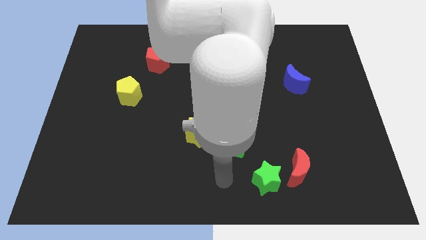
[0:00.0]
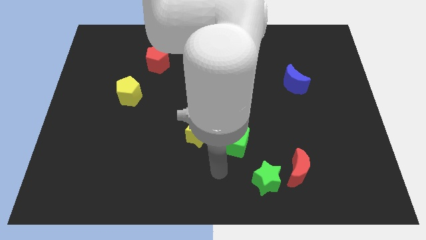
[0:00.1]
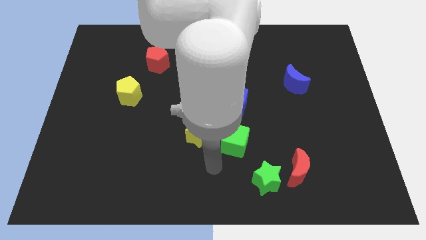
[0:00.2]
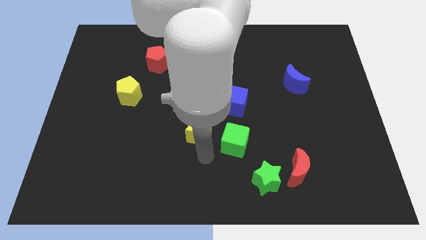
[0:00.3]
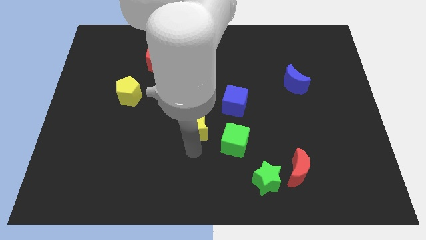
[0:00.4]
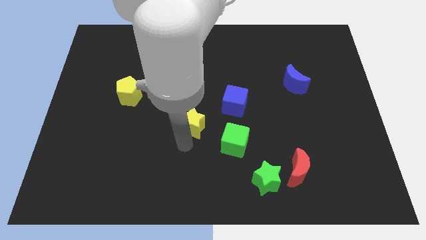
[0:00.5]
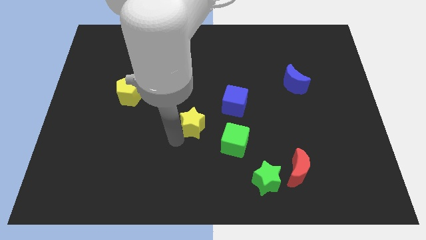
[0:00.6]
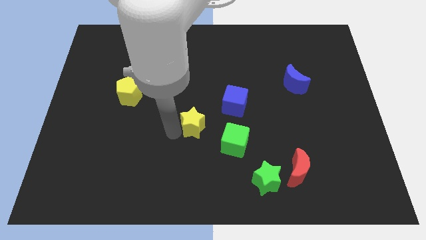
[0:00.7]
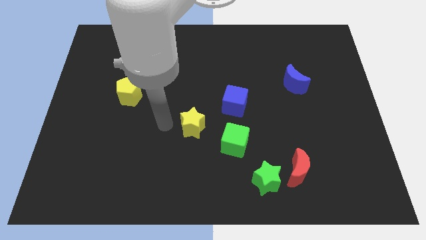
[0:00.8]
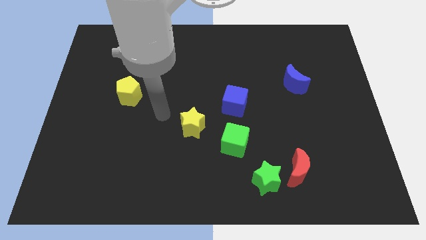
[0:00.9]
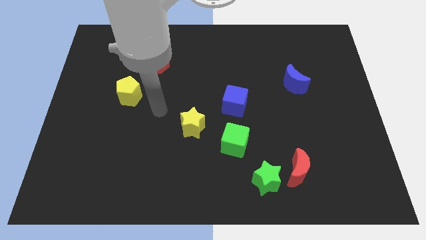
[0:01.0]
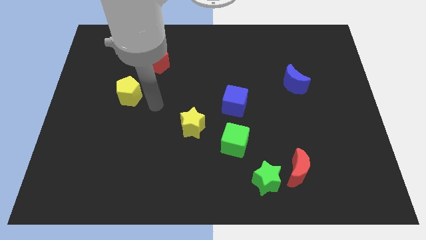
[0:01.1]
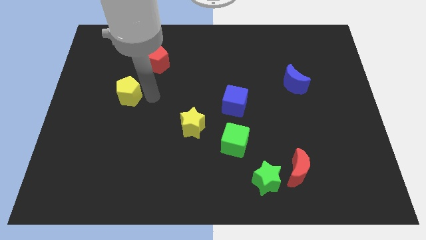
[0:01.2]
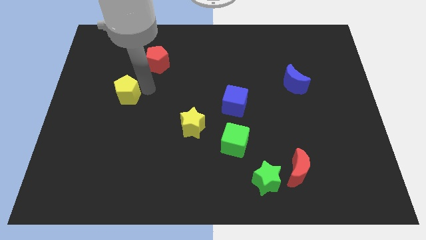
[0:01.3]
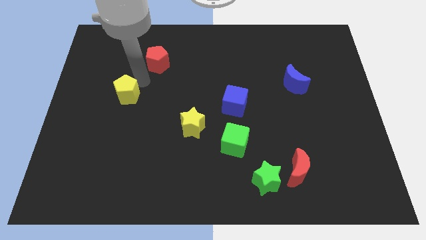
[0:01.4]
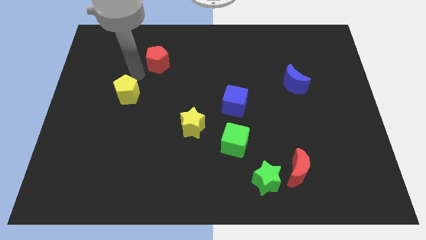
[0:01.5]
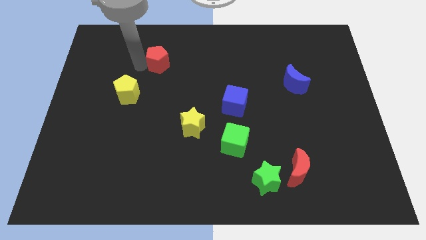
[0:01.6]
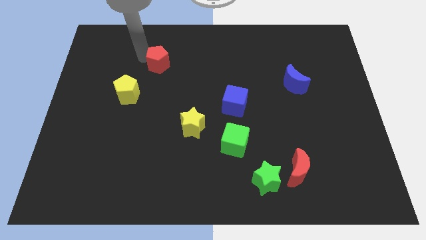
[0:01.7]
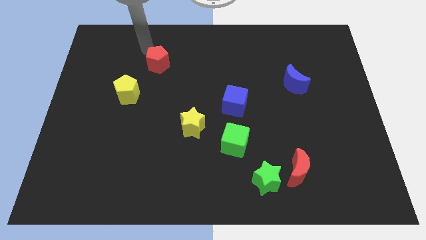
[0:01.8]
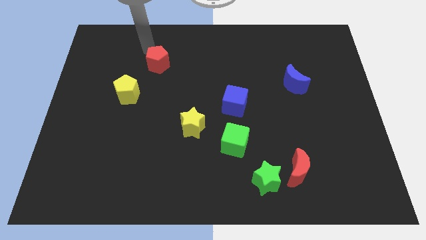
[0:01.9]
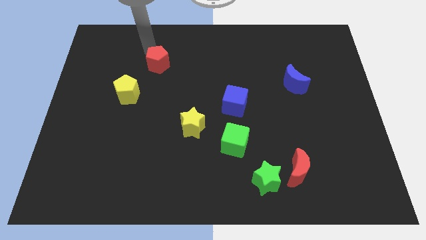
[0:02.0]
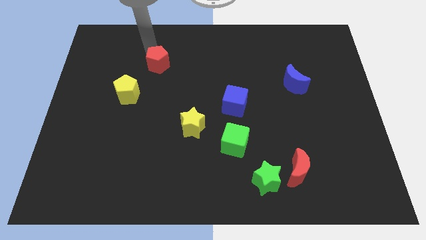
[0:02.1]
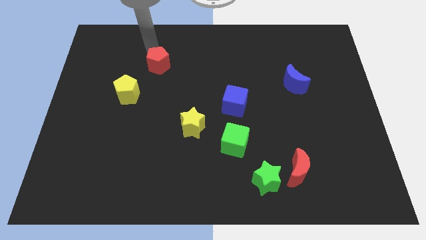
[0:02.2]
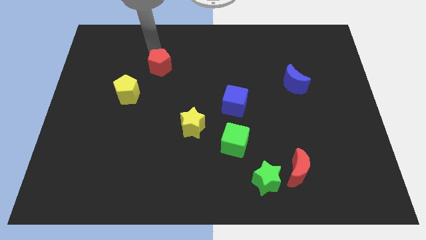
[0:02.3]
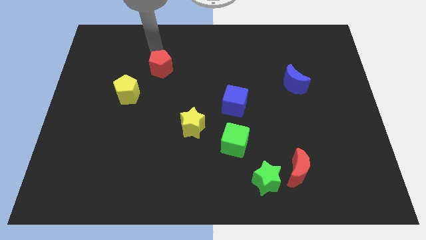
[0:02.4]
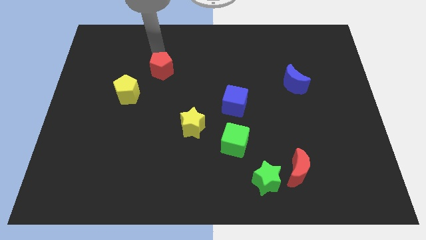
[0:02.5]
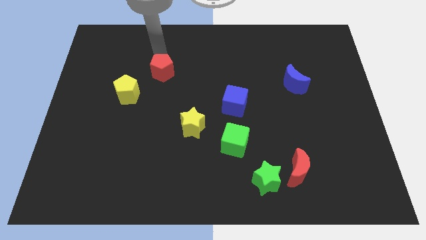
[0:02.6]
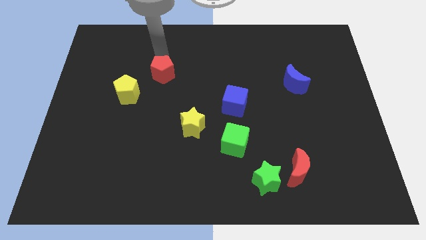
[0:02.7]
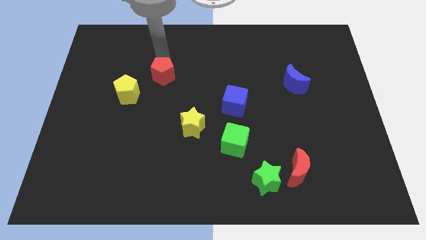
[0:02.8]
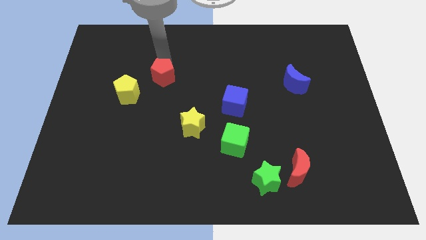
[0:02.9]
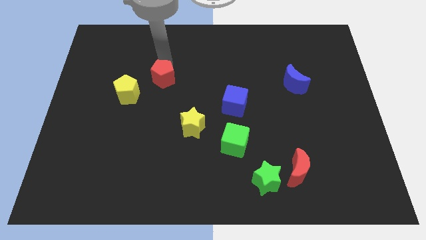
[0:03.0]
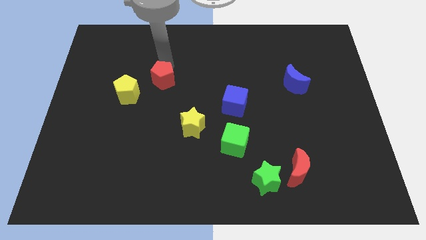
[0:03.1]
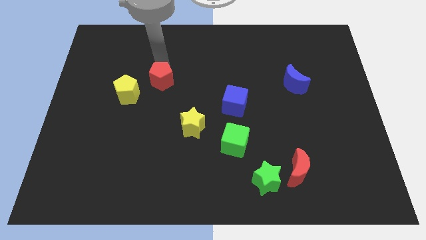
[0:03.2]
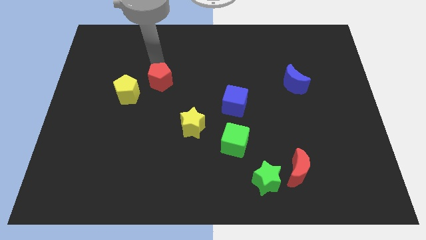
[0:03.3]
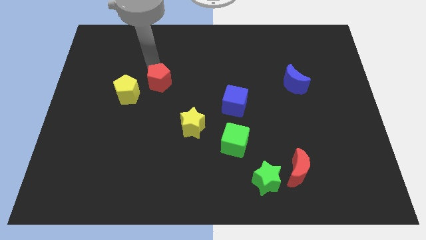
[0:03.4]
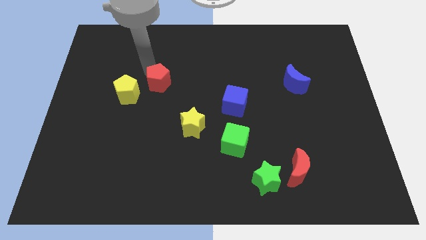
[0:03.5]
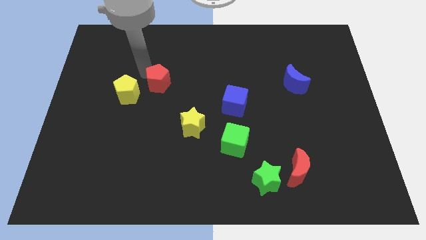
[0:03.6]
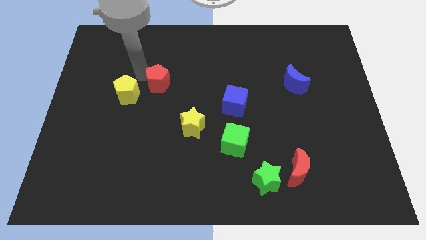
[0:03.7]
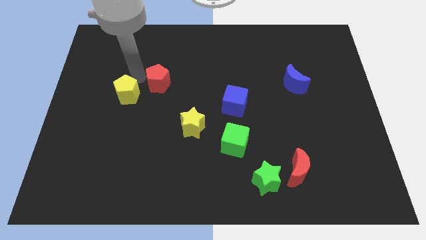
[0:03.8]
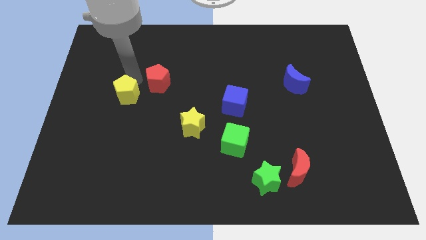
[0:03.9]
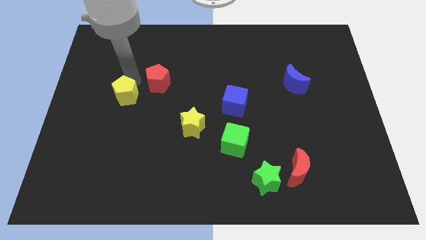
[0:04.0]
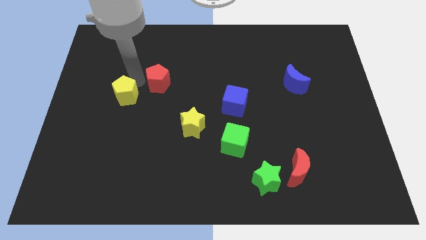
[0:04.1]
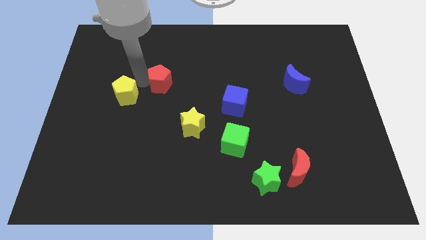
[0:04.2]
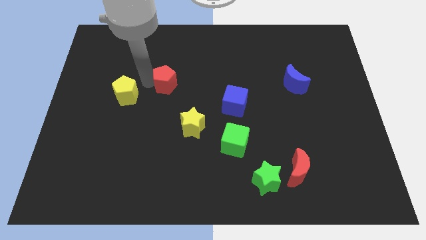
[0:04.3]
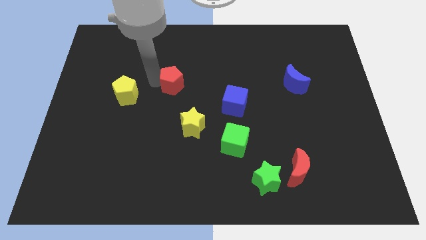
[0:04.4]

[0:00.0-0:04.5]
slightly move the red pentagon downwards and to the right diagonally

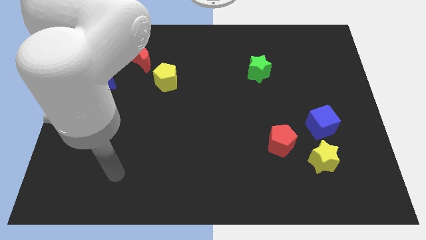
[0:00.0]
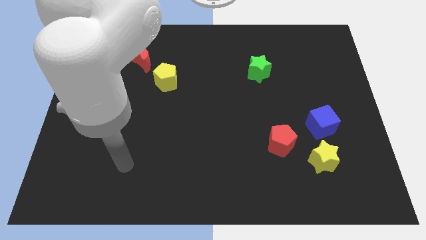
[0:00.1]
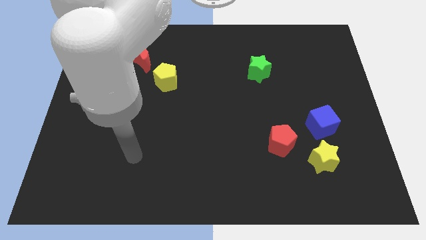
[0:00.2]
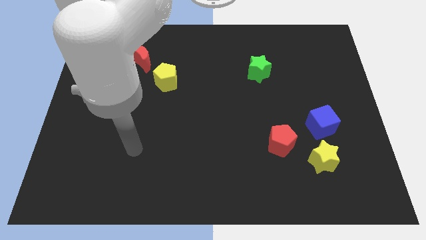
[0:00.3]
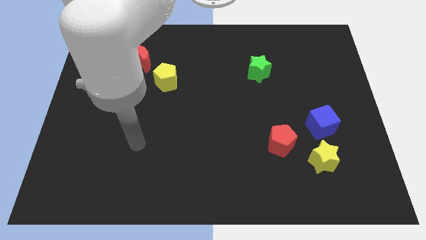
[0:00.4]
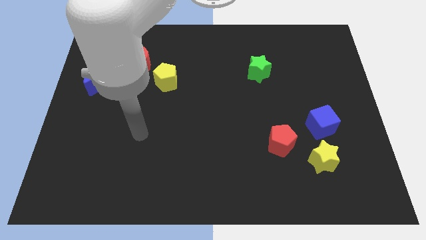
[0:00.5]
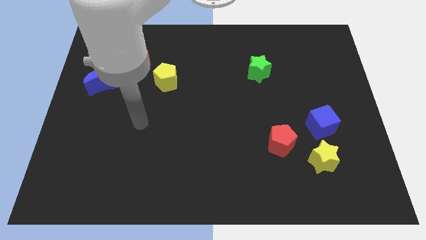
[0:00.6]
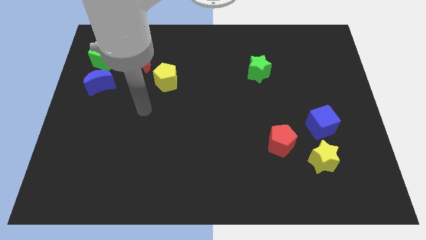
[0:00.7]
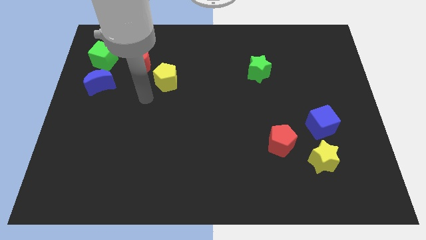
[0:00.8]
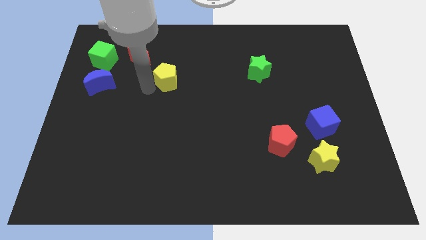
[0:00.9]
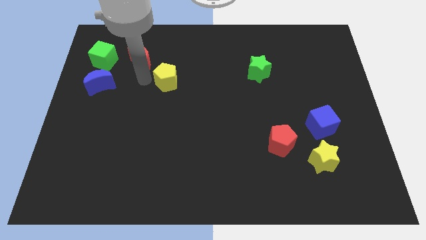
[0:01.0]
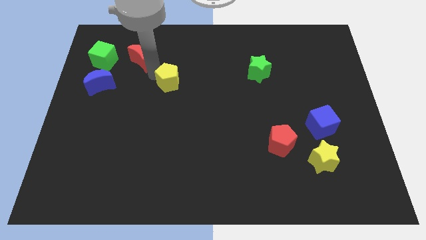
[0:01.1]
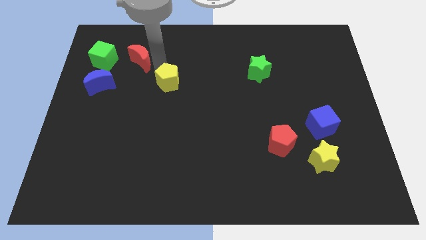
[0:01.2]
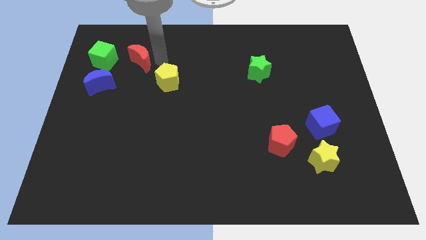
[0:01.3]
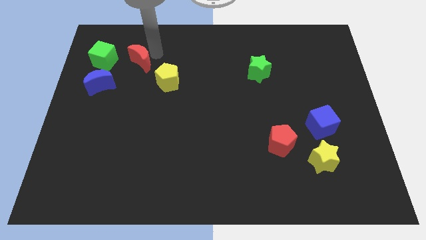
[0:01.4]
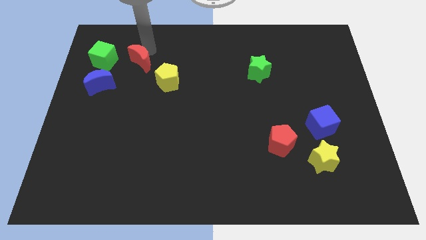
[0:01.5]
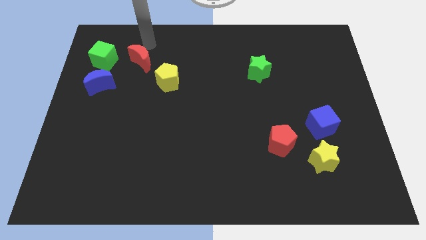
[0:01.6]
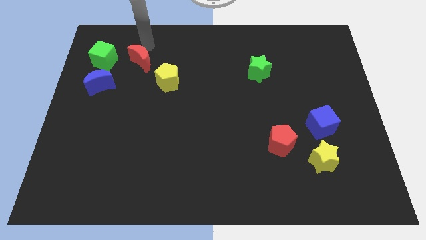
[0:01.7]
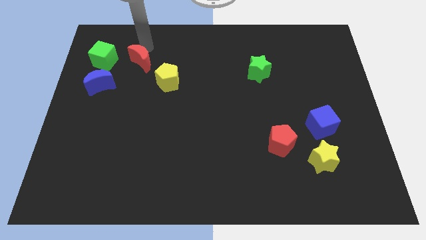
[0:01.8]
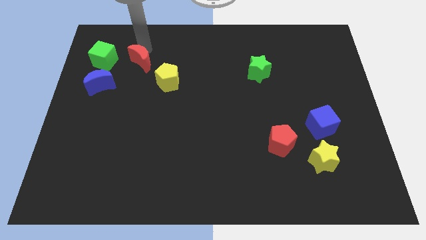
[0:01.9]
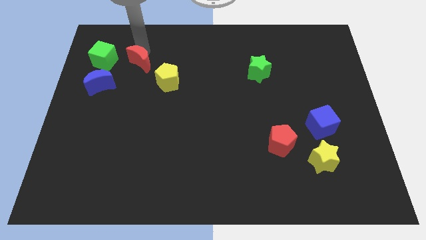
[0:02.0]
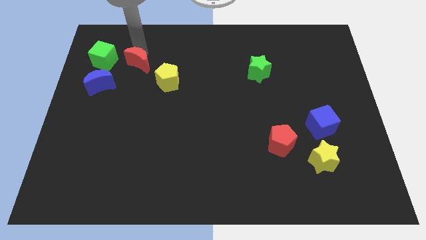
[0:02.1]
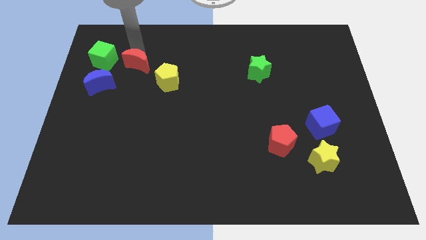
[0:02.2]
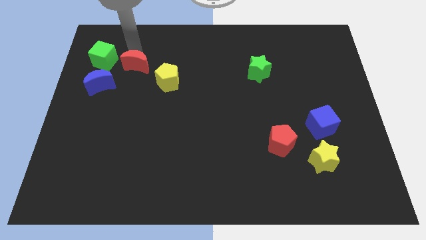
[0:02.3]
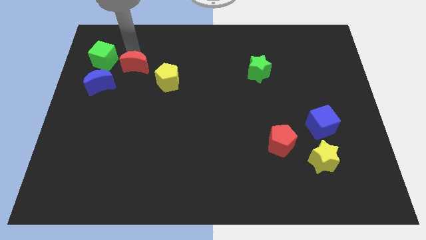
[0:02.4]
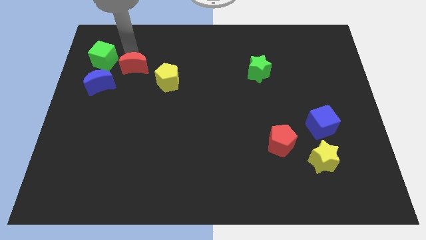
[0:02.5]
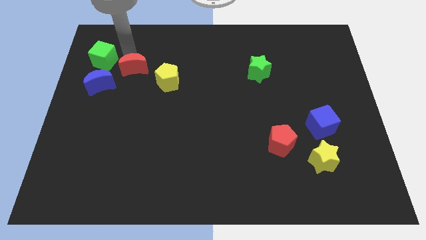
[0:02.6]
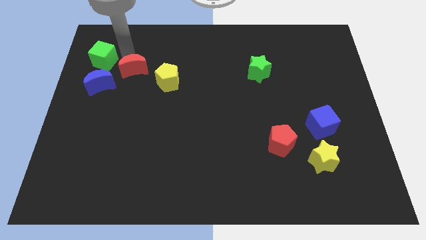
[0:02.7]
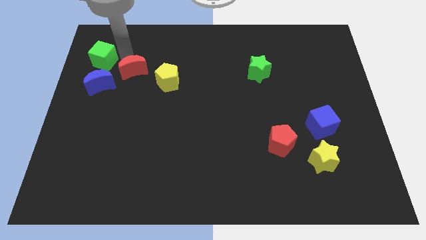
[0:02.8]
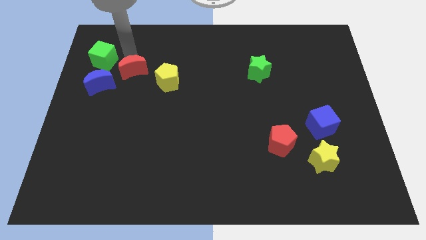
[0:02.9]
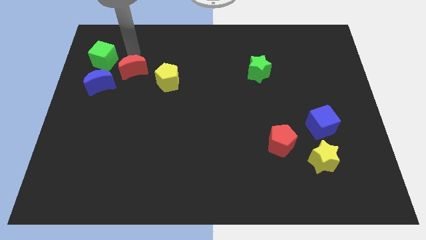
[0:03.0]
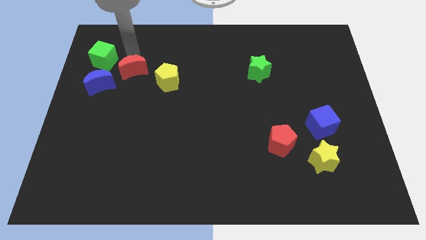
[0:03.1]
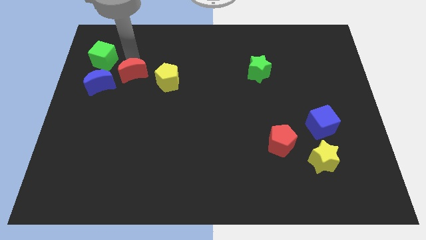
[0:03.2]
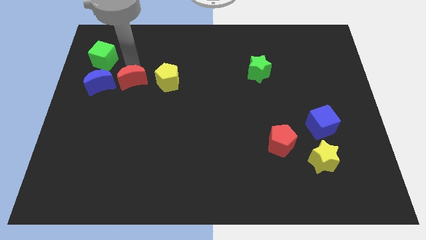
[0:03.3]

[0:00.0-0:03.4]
push the red moon slightly down
